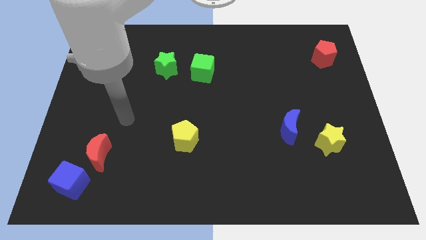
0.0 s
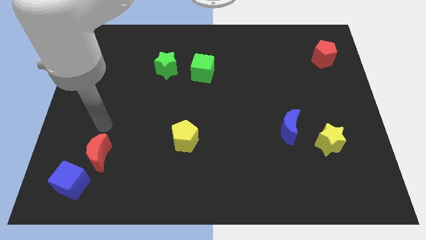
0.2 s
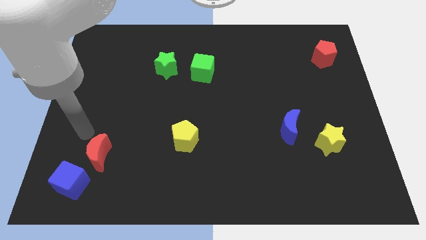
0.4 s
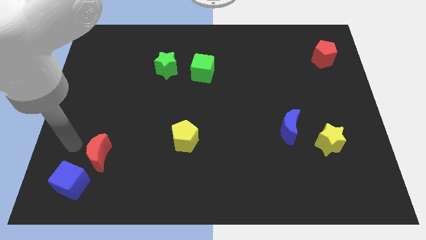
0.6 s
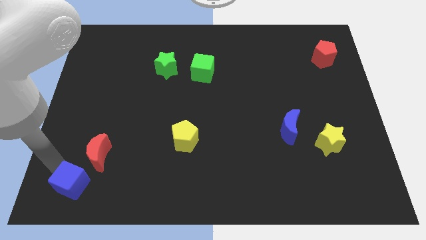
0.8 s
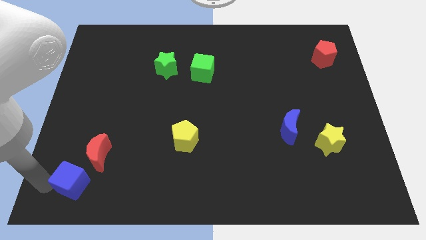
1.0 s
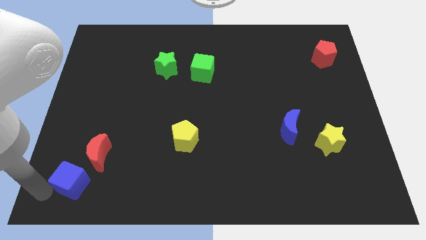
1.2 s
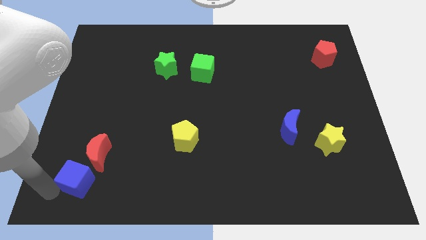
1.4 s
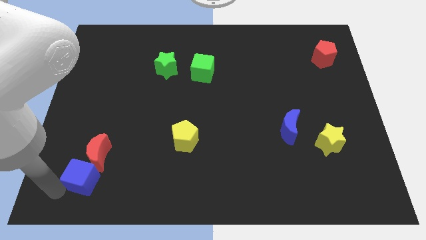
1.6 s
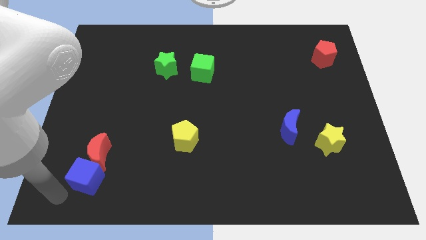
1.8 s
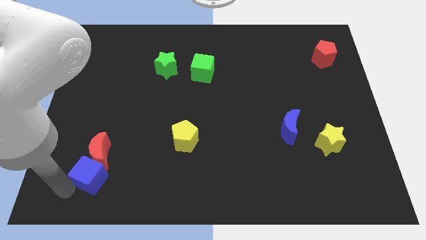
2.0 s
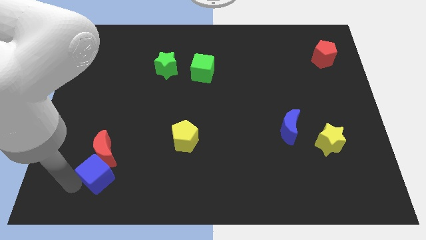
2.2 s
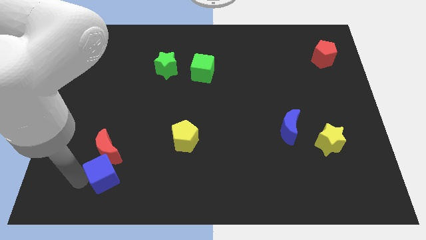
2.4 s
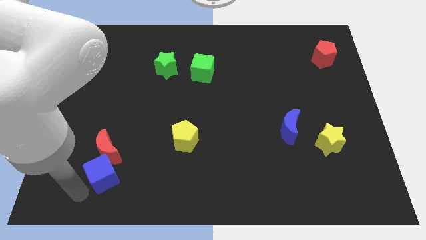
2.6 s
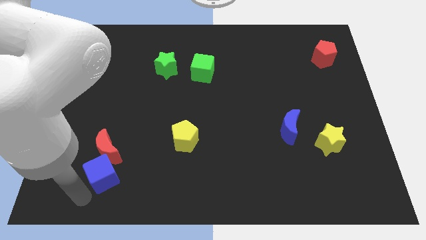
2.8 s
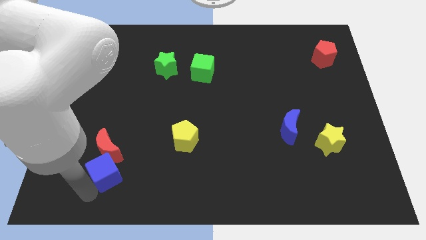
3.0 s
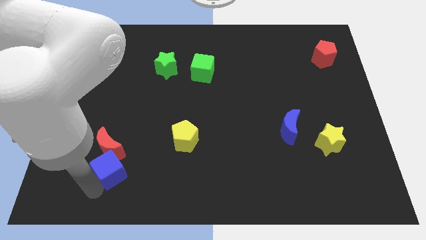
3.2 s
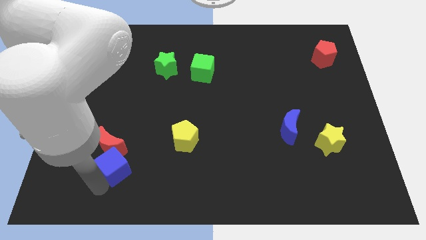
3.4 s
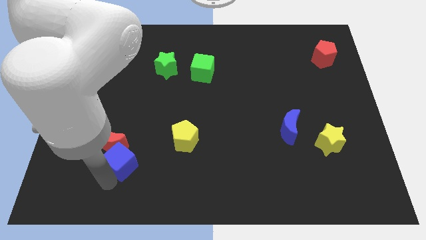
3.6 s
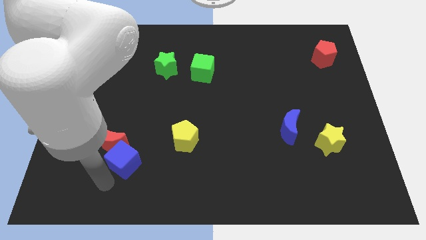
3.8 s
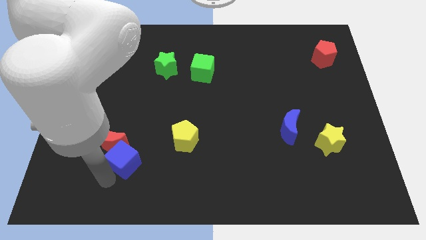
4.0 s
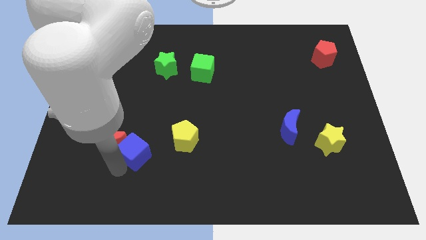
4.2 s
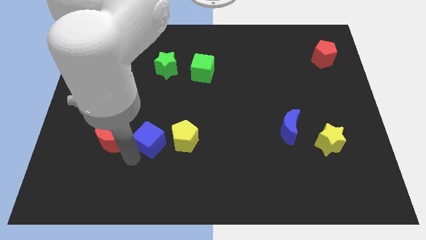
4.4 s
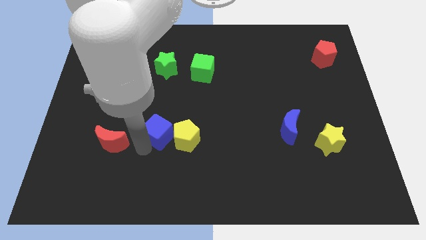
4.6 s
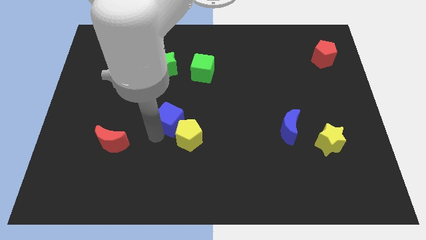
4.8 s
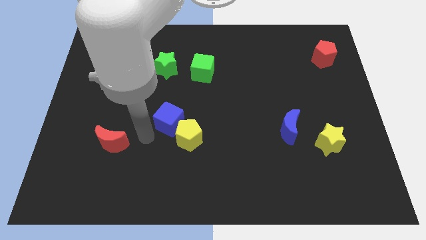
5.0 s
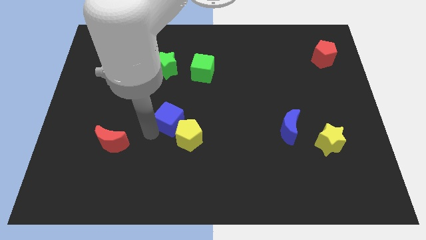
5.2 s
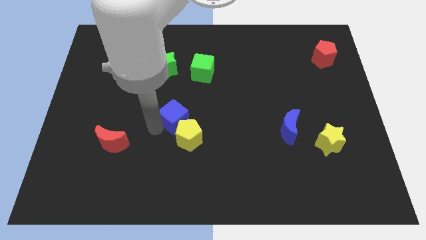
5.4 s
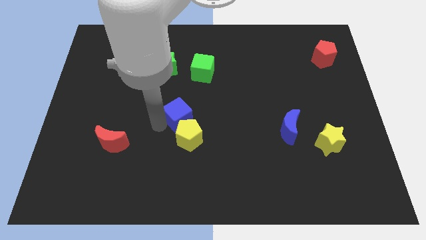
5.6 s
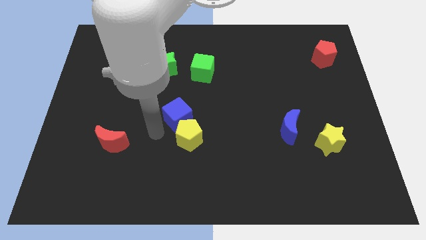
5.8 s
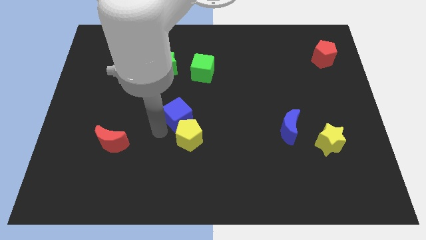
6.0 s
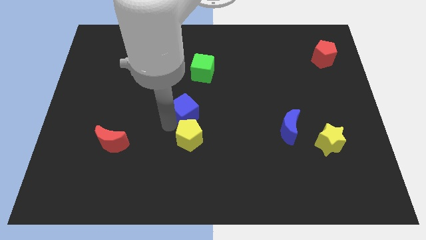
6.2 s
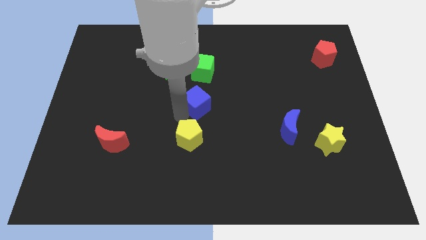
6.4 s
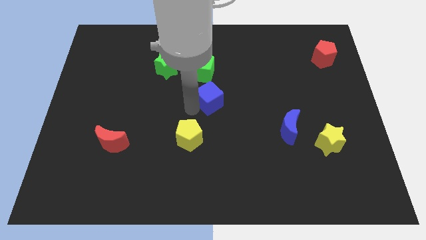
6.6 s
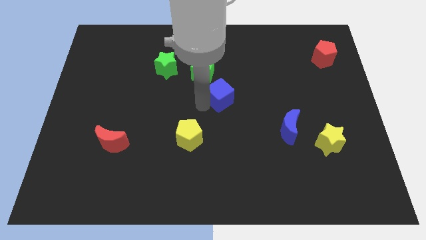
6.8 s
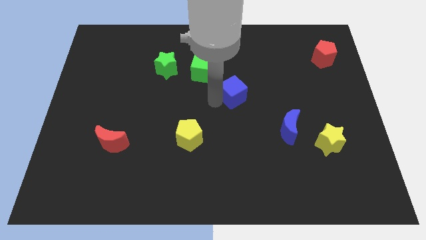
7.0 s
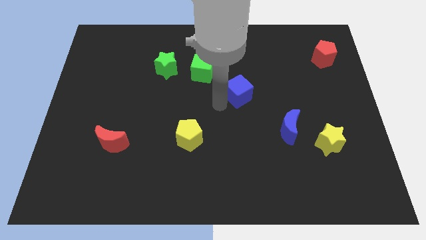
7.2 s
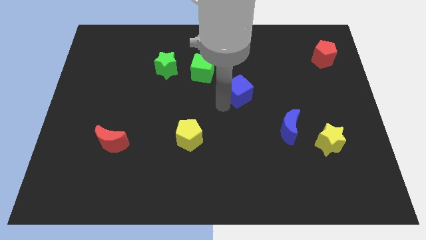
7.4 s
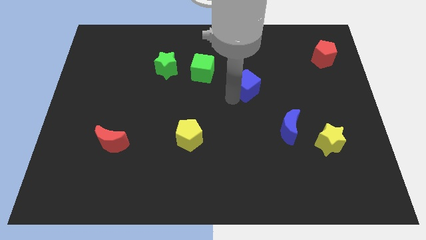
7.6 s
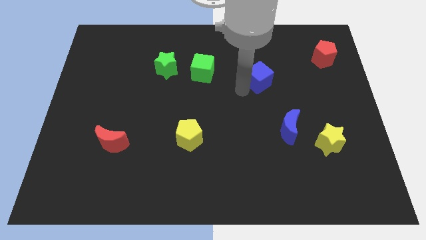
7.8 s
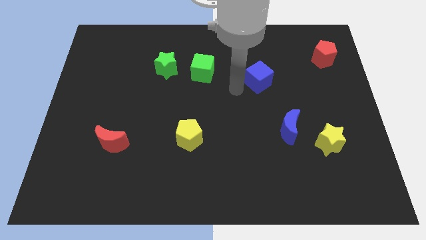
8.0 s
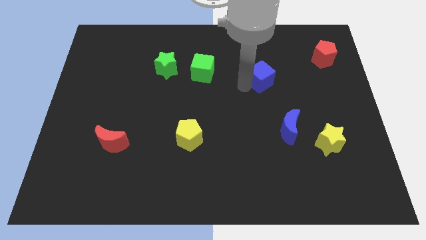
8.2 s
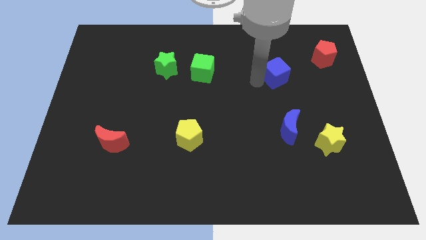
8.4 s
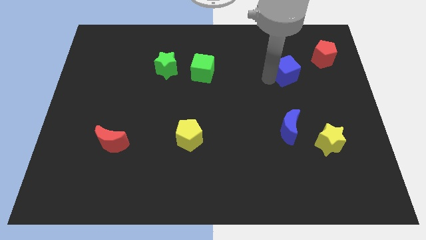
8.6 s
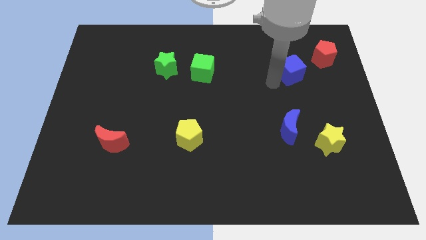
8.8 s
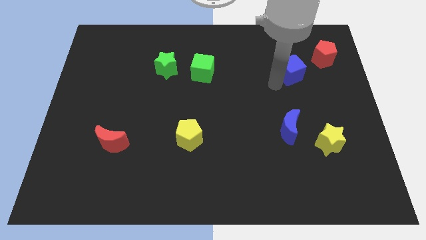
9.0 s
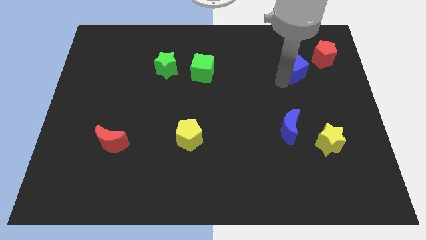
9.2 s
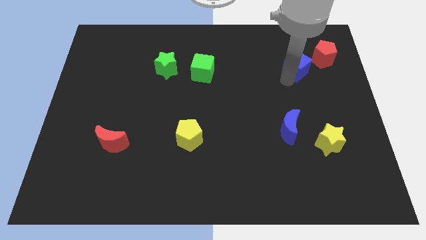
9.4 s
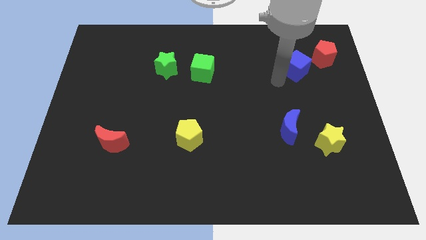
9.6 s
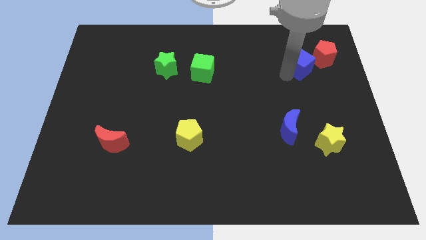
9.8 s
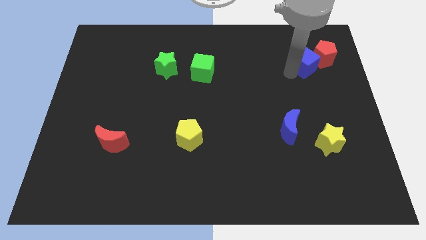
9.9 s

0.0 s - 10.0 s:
put the blue cube close to the red pentagon
